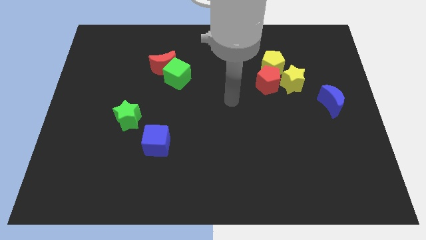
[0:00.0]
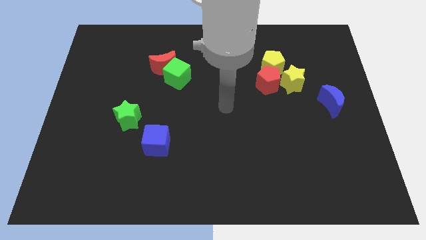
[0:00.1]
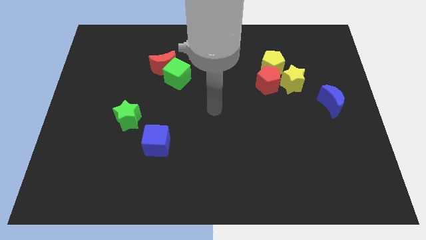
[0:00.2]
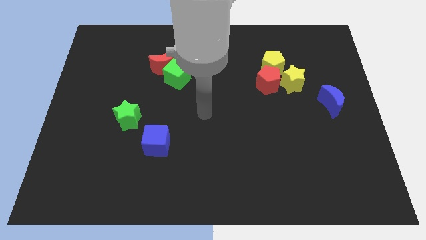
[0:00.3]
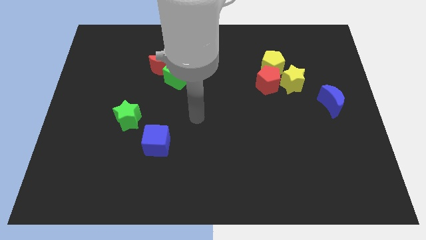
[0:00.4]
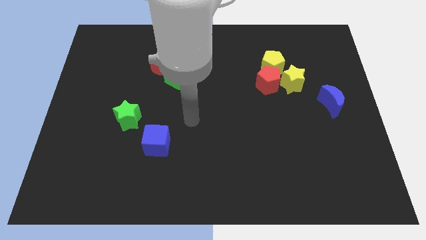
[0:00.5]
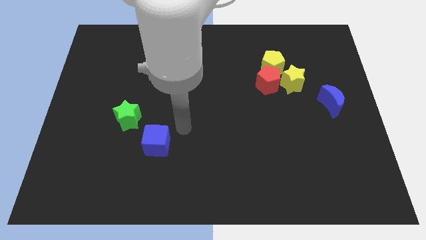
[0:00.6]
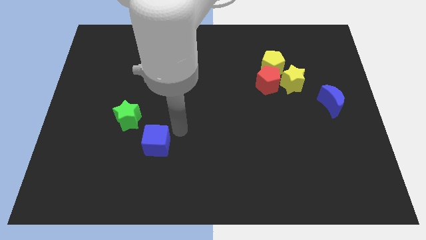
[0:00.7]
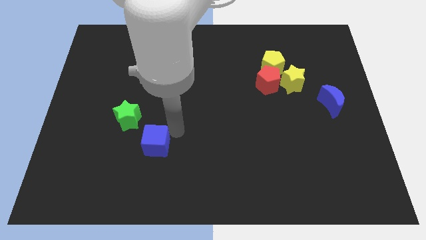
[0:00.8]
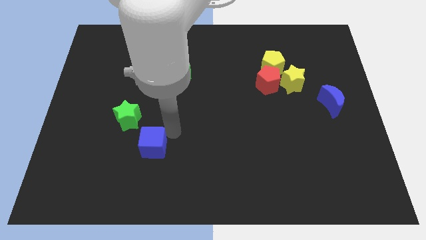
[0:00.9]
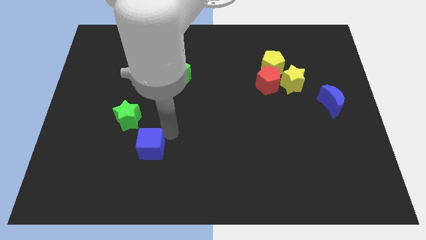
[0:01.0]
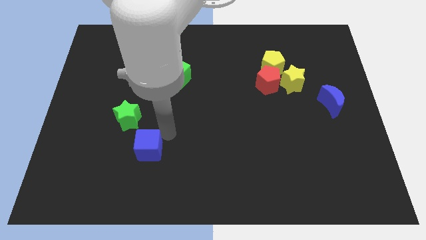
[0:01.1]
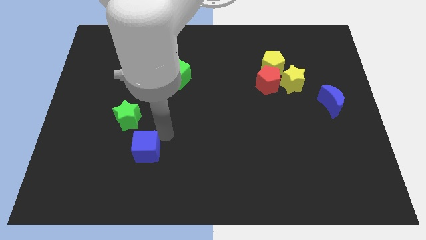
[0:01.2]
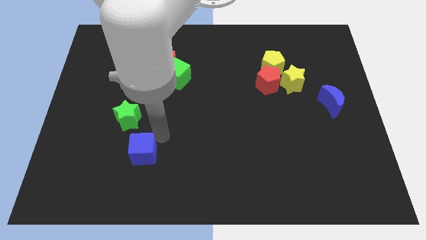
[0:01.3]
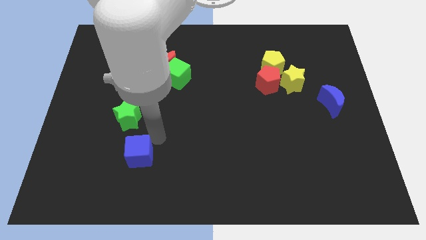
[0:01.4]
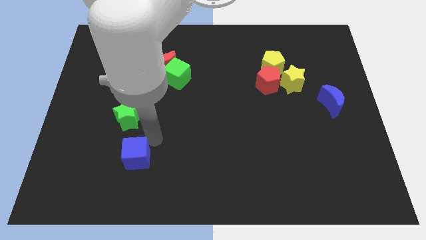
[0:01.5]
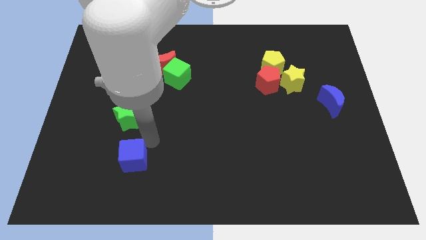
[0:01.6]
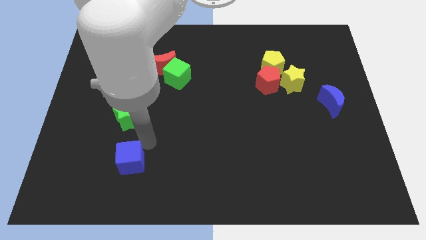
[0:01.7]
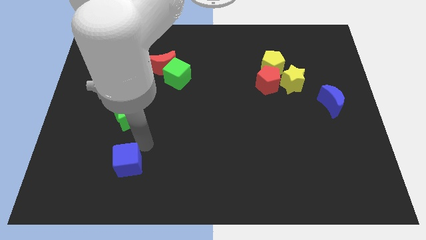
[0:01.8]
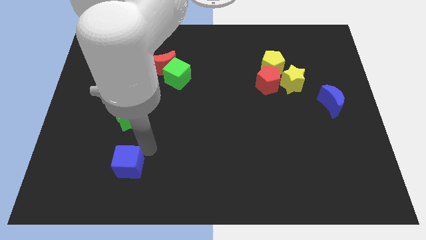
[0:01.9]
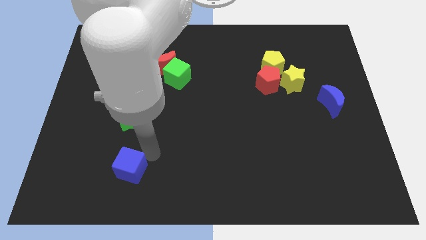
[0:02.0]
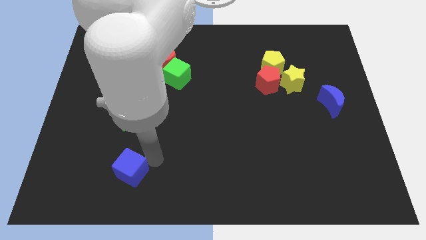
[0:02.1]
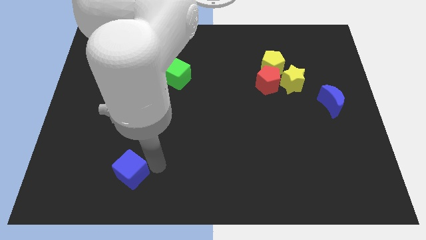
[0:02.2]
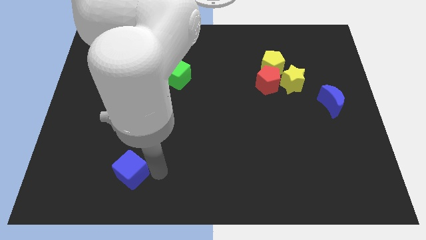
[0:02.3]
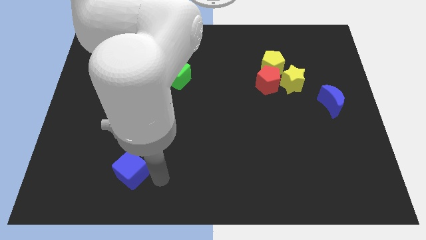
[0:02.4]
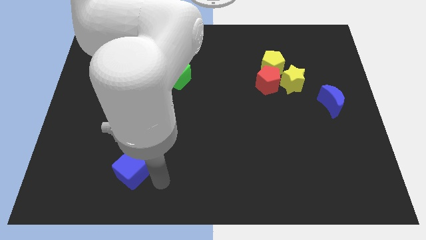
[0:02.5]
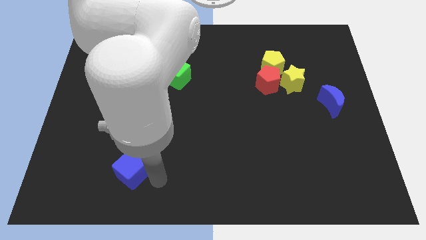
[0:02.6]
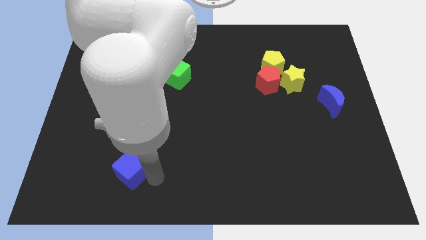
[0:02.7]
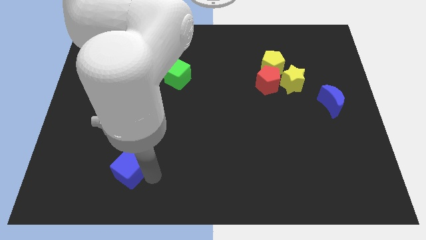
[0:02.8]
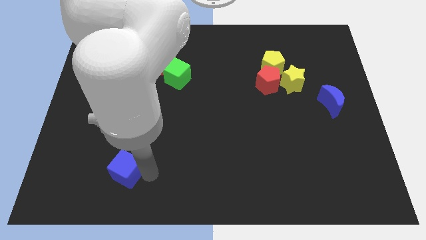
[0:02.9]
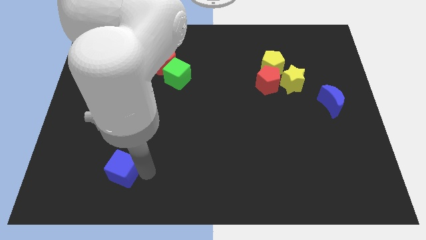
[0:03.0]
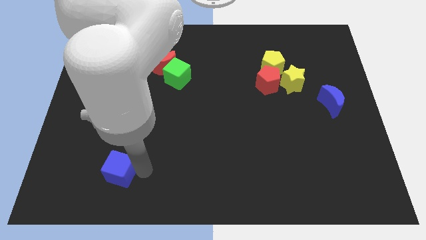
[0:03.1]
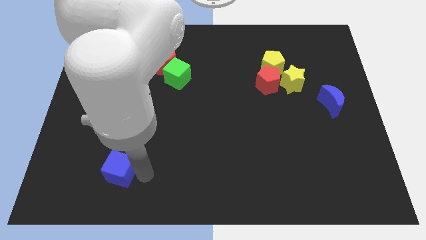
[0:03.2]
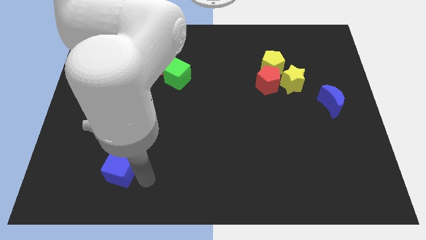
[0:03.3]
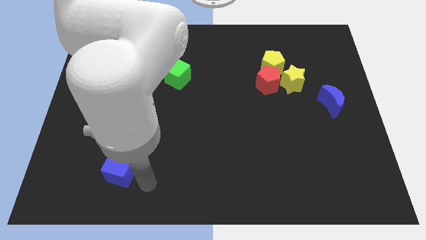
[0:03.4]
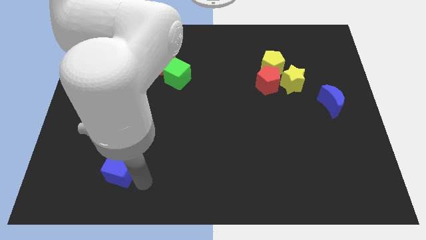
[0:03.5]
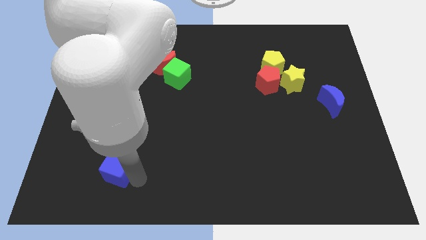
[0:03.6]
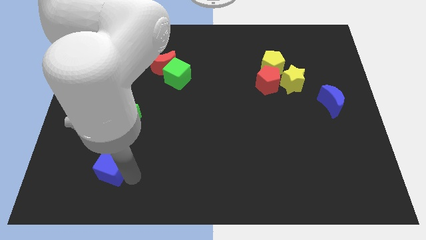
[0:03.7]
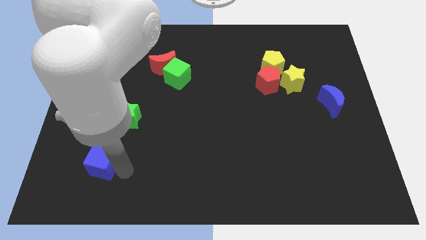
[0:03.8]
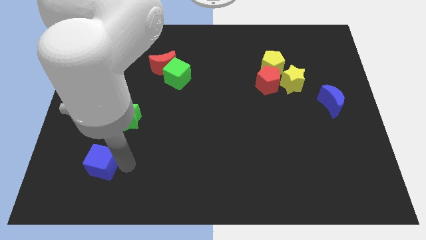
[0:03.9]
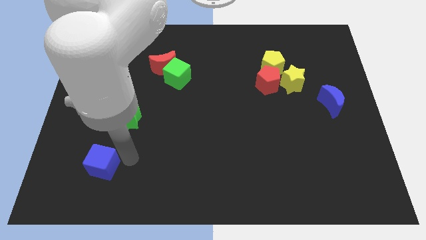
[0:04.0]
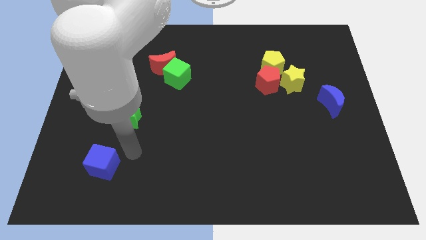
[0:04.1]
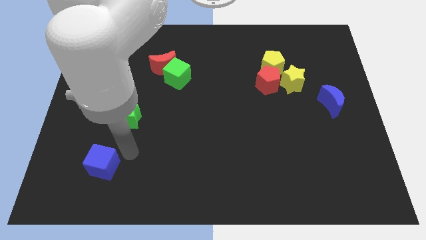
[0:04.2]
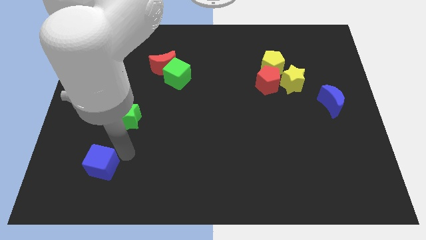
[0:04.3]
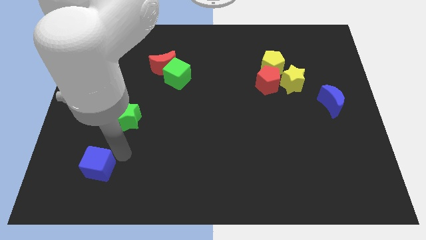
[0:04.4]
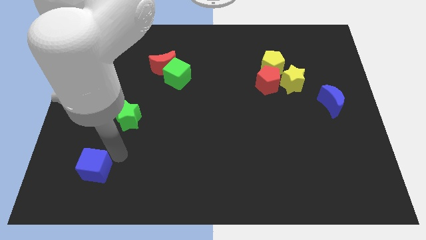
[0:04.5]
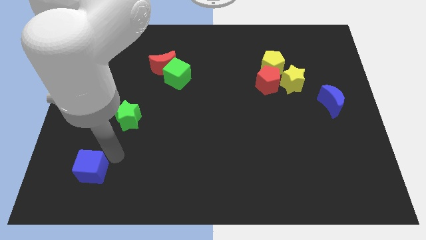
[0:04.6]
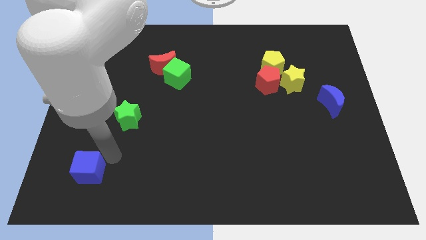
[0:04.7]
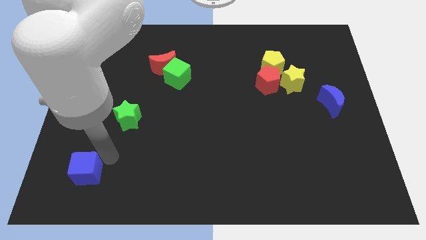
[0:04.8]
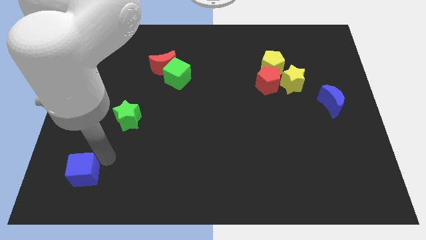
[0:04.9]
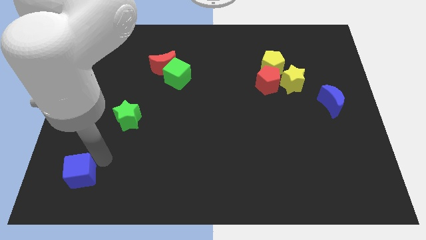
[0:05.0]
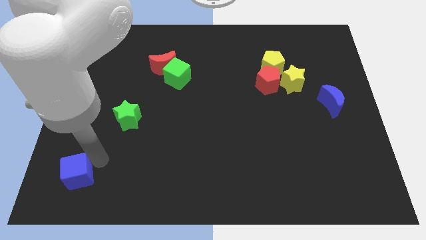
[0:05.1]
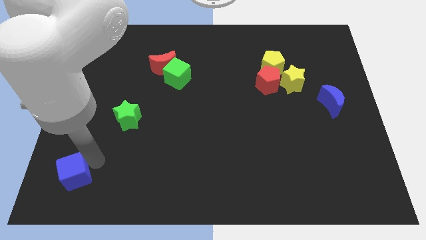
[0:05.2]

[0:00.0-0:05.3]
slide the blue cube to the bottom left of the board

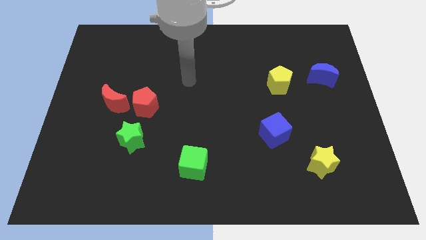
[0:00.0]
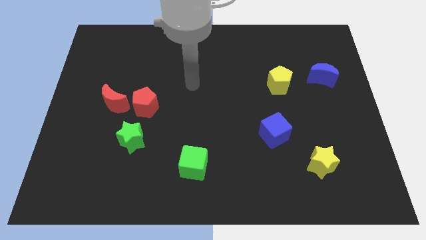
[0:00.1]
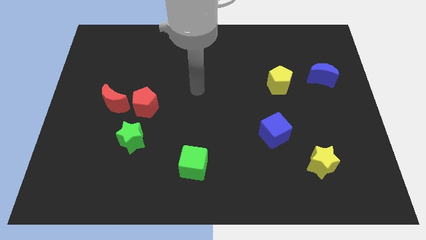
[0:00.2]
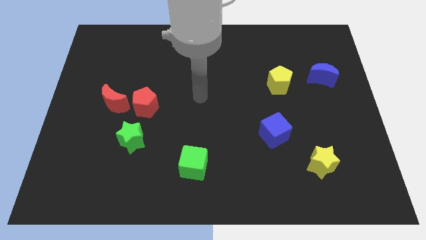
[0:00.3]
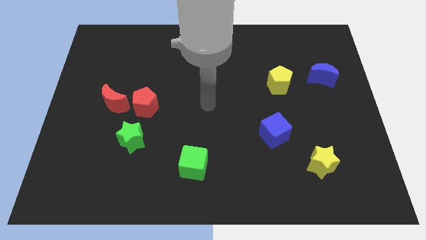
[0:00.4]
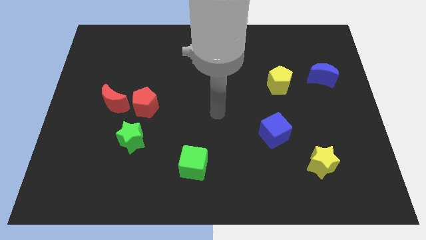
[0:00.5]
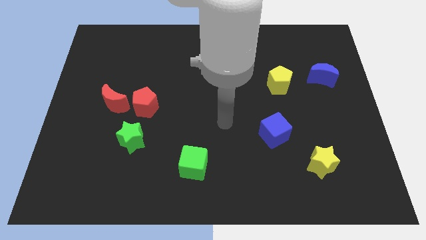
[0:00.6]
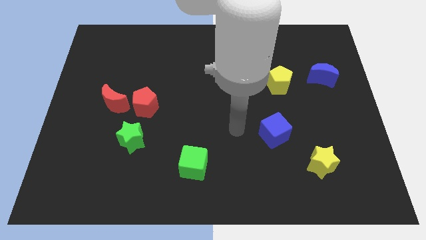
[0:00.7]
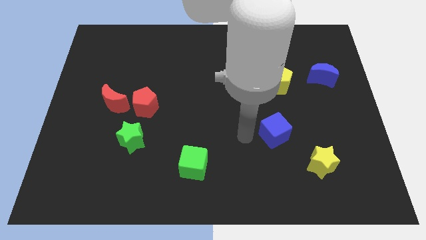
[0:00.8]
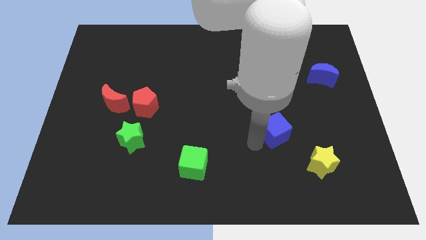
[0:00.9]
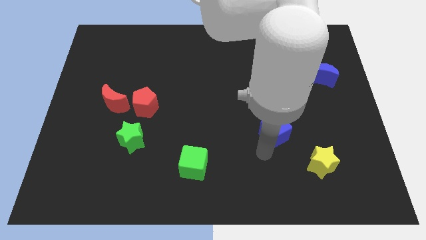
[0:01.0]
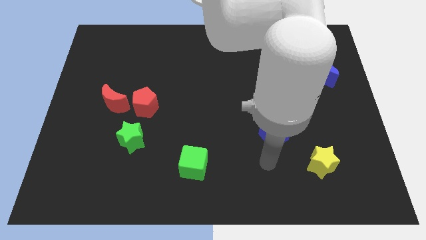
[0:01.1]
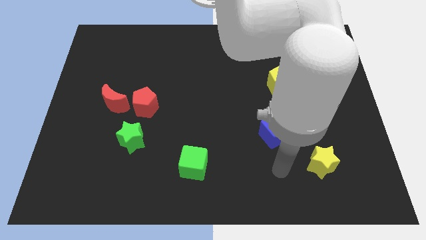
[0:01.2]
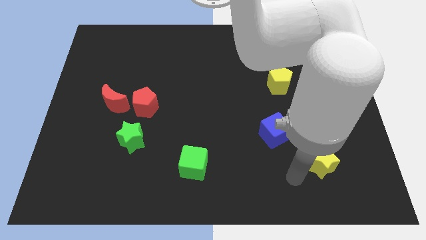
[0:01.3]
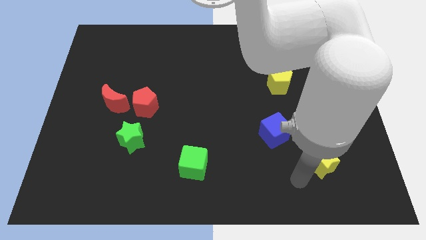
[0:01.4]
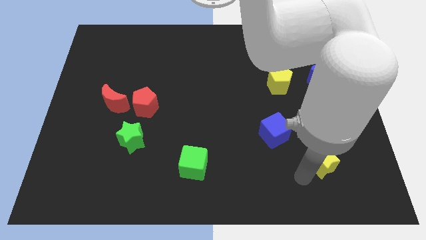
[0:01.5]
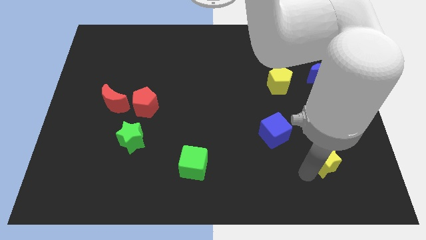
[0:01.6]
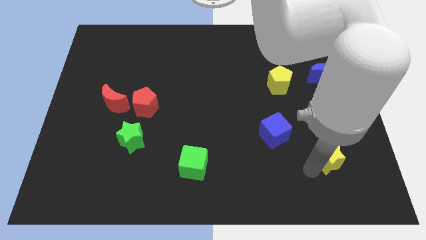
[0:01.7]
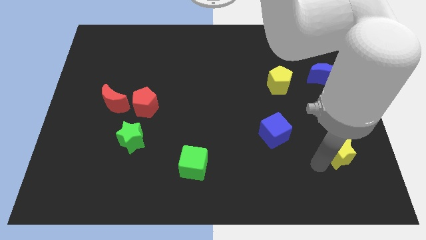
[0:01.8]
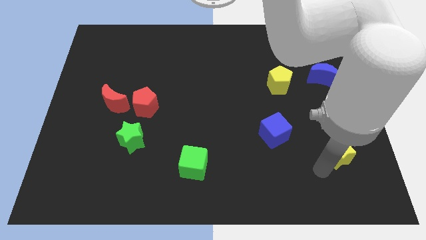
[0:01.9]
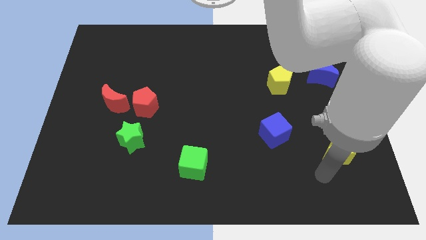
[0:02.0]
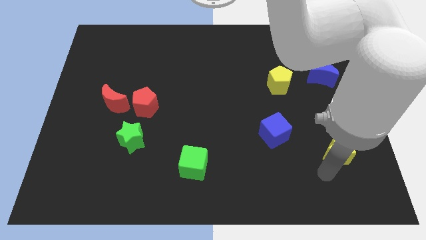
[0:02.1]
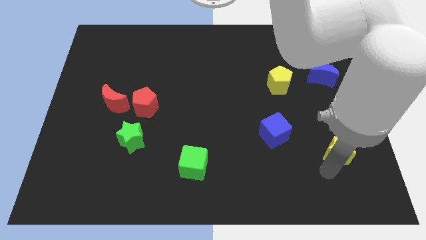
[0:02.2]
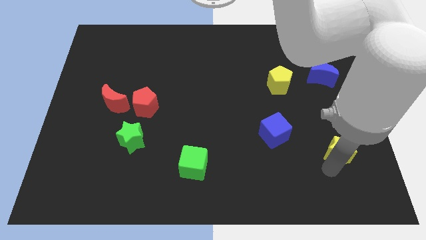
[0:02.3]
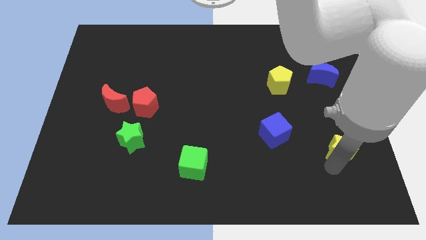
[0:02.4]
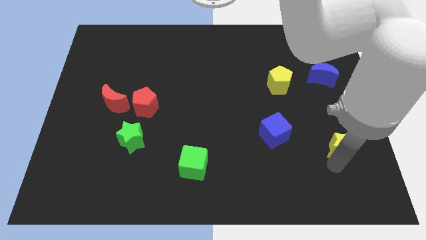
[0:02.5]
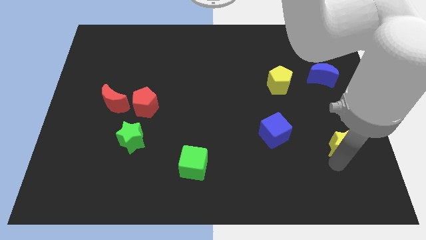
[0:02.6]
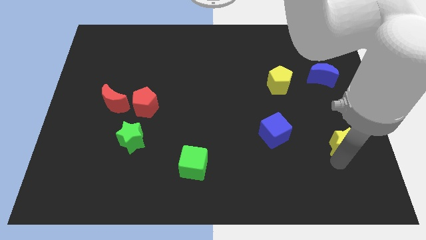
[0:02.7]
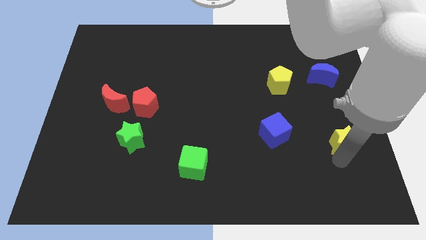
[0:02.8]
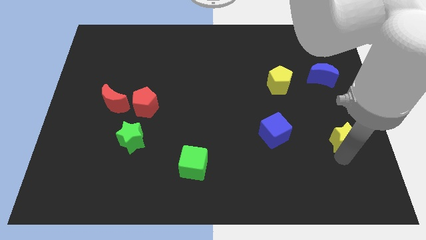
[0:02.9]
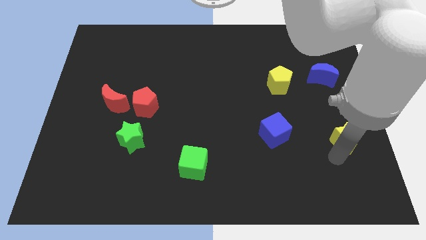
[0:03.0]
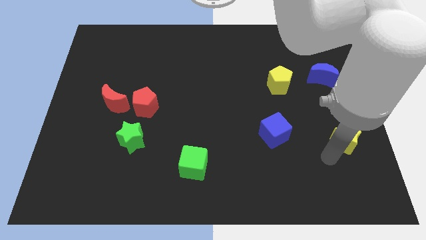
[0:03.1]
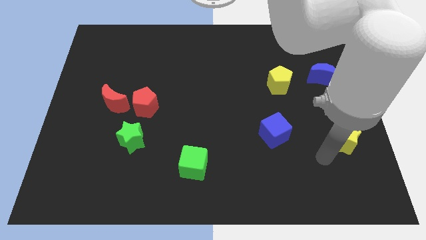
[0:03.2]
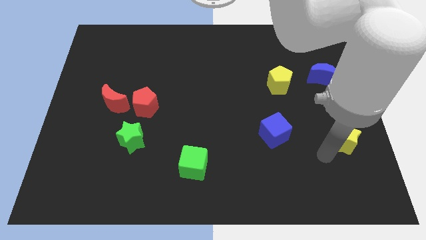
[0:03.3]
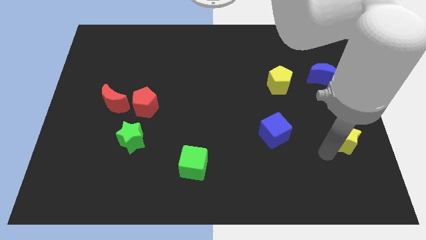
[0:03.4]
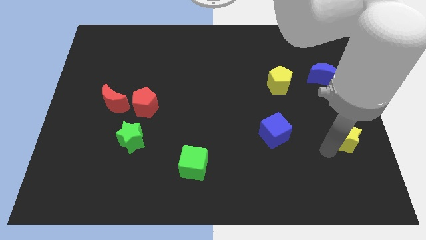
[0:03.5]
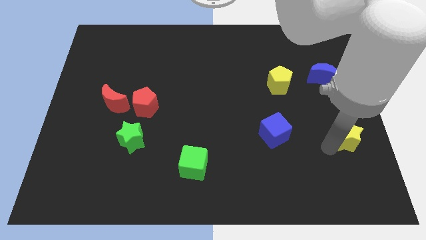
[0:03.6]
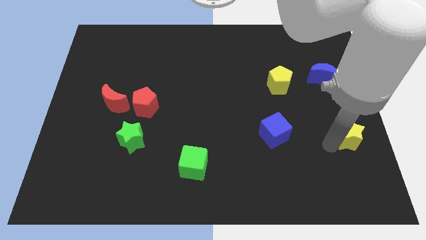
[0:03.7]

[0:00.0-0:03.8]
move the yellow star to the right side of the board
